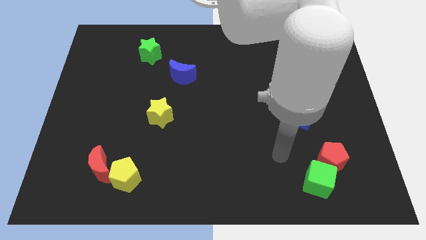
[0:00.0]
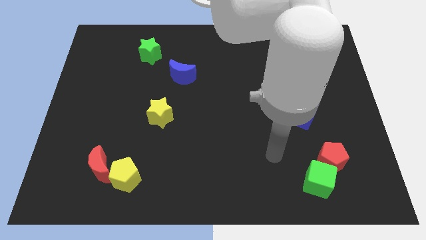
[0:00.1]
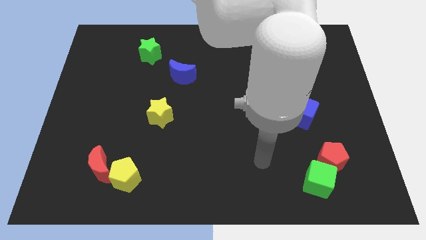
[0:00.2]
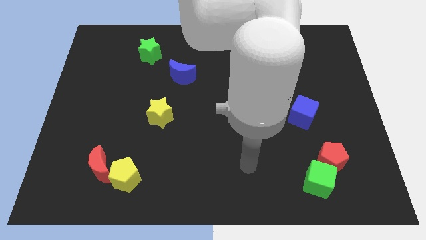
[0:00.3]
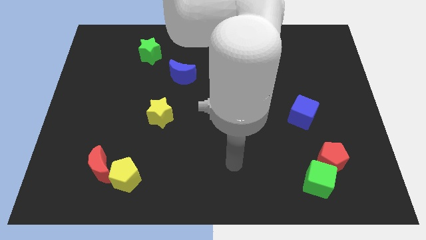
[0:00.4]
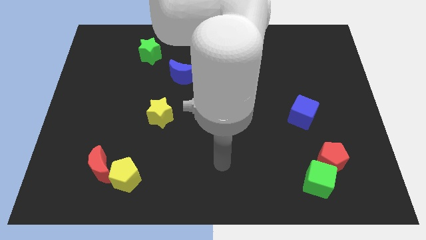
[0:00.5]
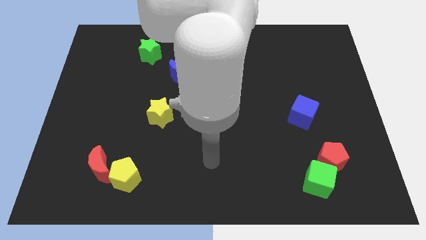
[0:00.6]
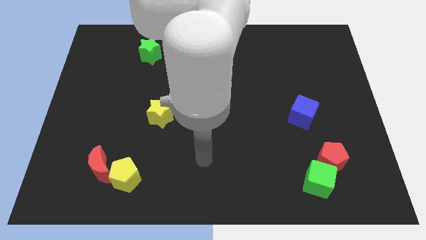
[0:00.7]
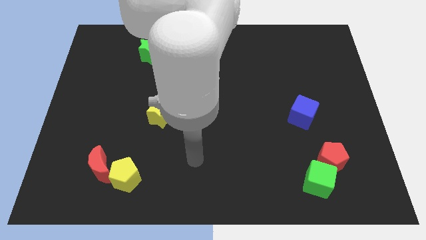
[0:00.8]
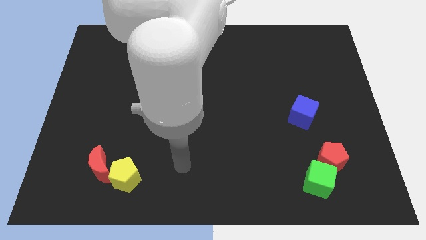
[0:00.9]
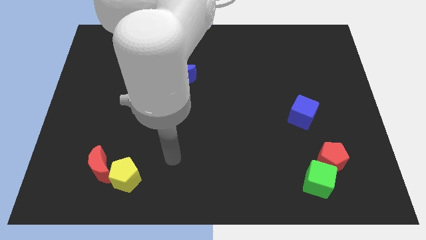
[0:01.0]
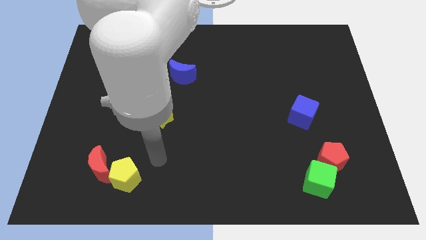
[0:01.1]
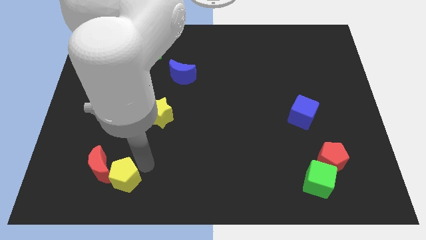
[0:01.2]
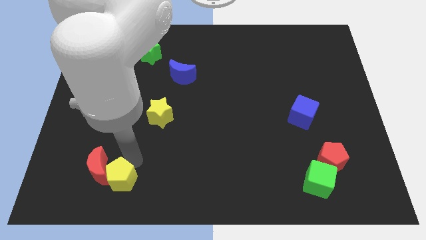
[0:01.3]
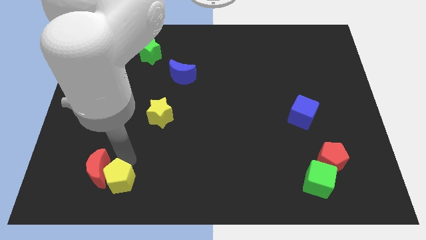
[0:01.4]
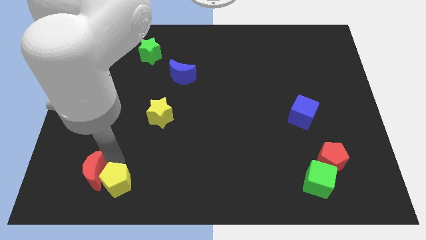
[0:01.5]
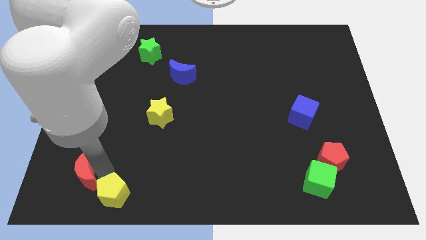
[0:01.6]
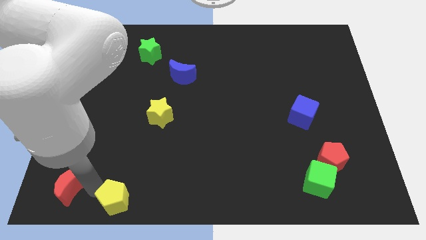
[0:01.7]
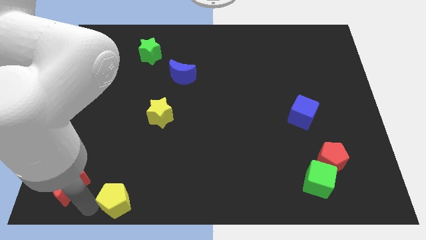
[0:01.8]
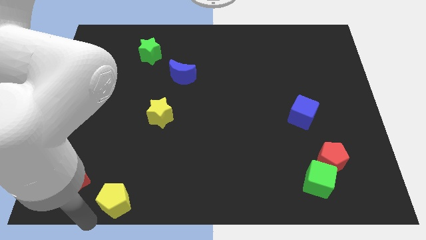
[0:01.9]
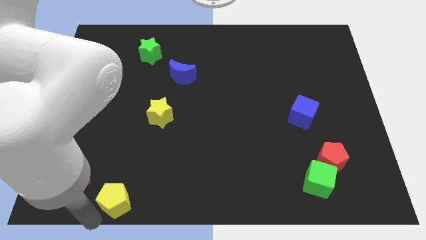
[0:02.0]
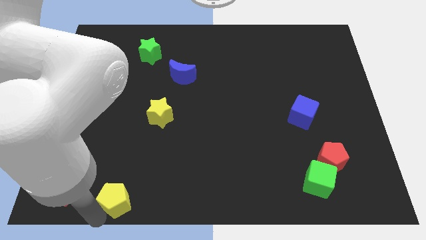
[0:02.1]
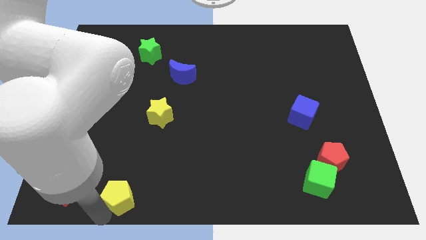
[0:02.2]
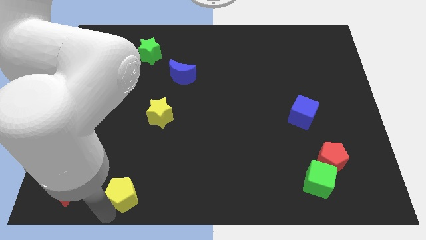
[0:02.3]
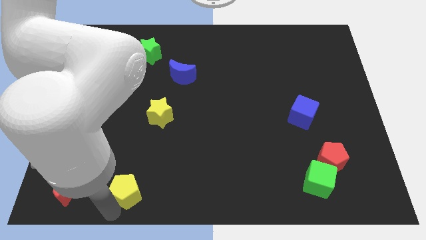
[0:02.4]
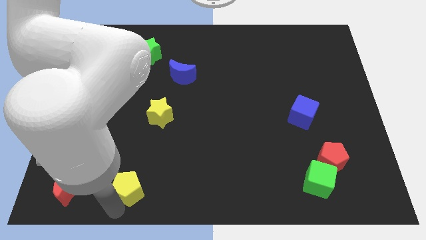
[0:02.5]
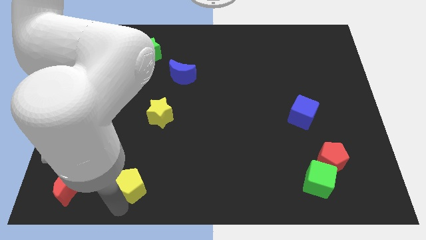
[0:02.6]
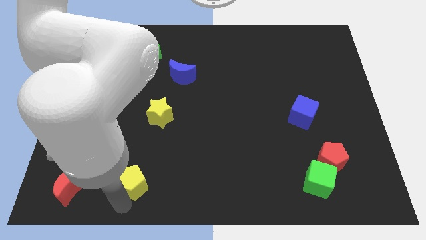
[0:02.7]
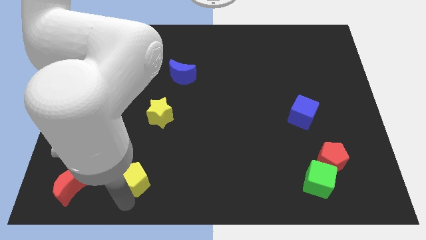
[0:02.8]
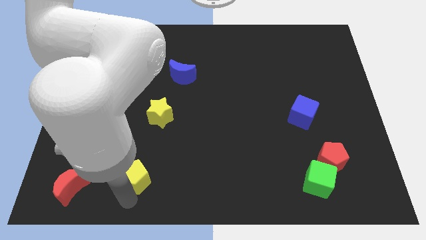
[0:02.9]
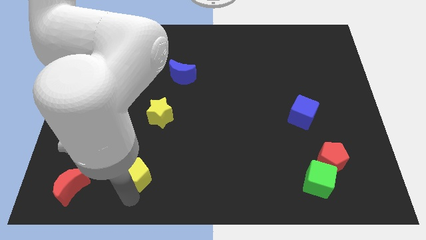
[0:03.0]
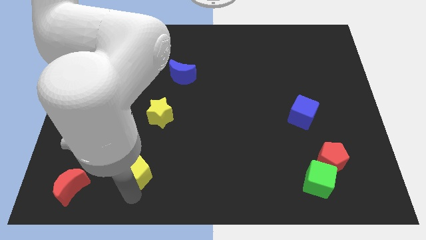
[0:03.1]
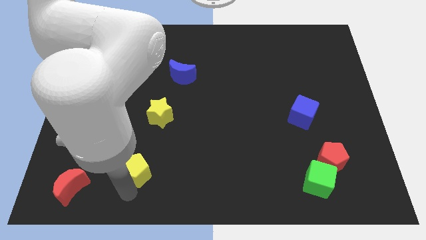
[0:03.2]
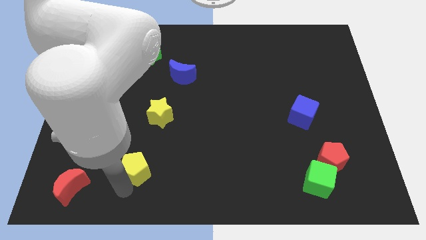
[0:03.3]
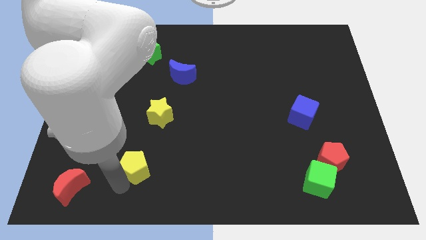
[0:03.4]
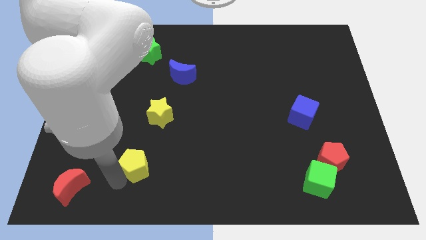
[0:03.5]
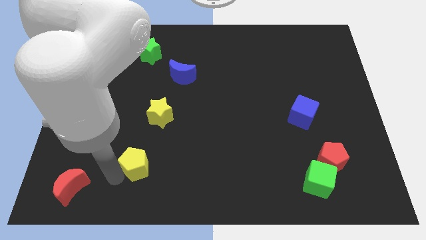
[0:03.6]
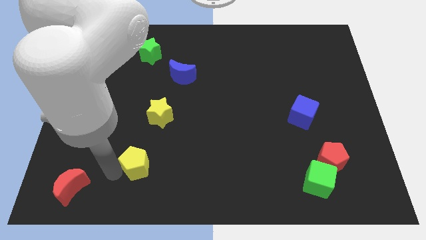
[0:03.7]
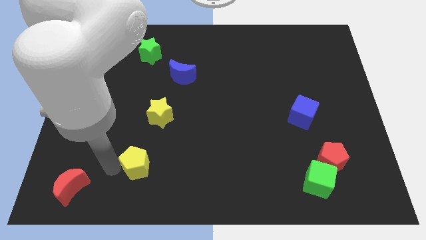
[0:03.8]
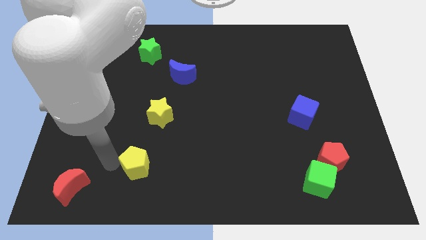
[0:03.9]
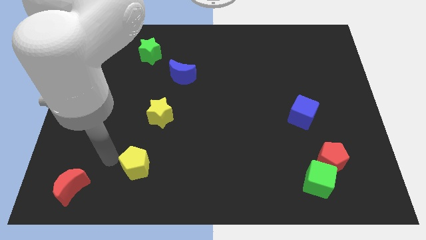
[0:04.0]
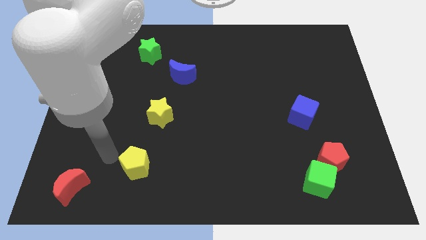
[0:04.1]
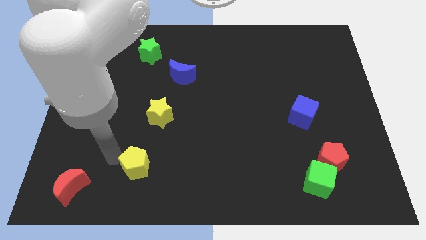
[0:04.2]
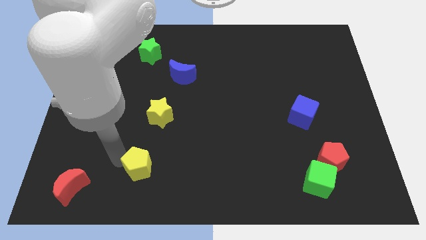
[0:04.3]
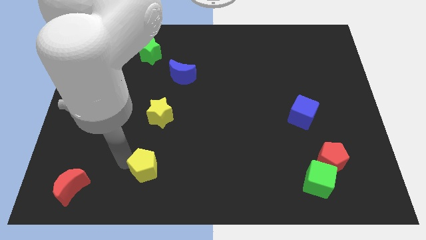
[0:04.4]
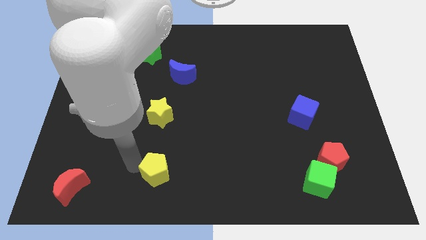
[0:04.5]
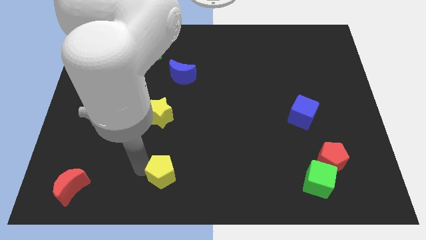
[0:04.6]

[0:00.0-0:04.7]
move the yellow pentagon a bit right

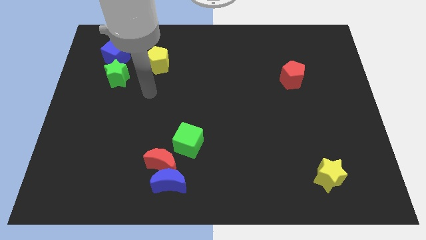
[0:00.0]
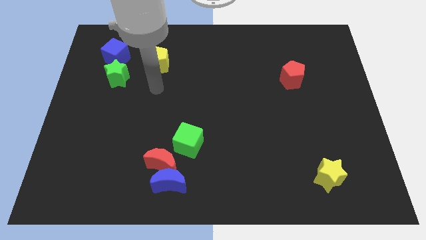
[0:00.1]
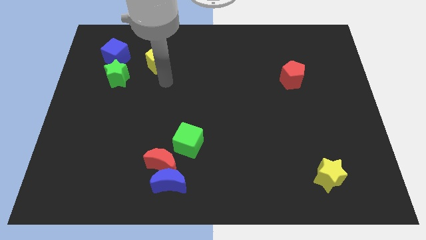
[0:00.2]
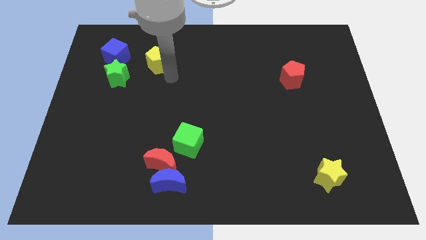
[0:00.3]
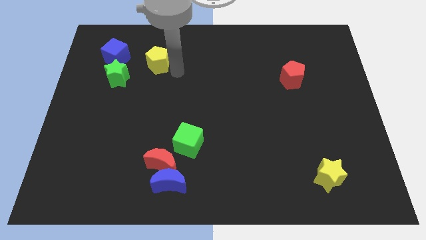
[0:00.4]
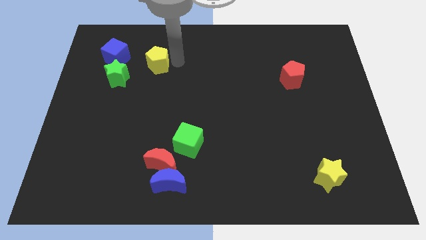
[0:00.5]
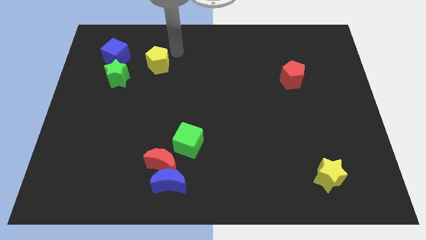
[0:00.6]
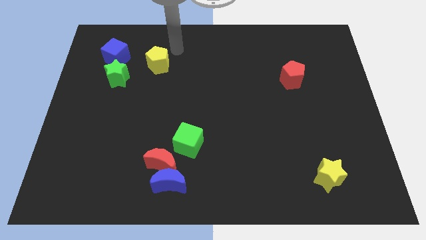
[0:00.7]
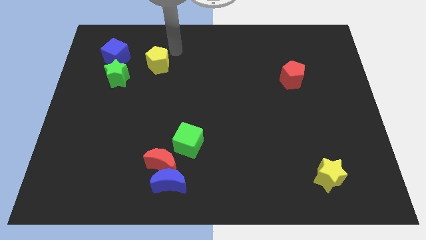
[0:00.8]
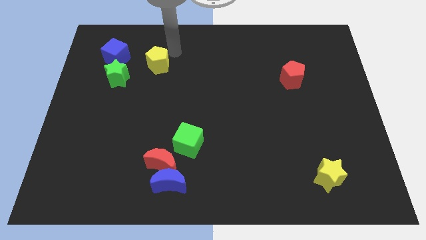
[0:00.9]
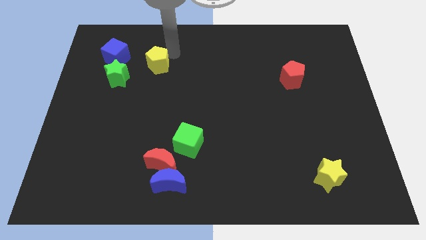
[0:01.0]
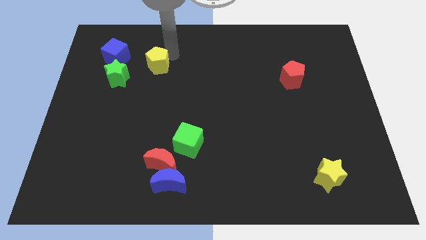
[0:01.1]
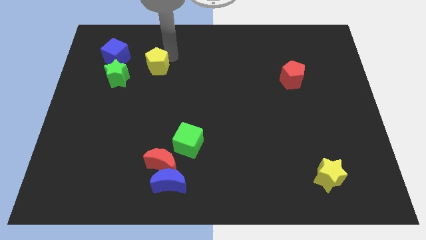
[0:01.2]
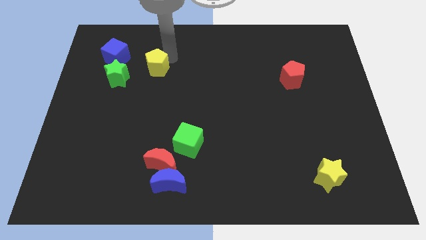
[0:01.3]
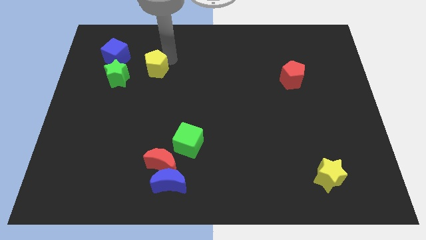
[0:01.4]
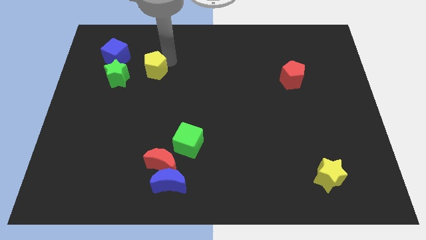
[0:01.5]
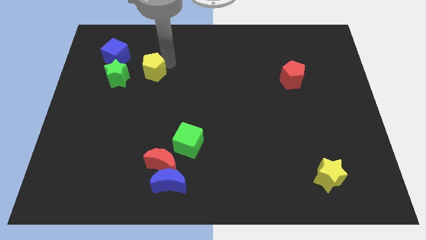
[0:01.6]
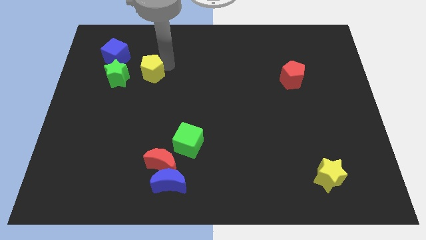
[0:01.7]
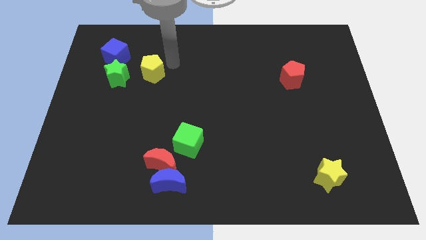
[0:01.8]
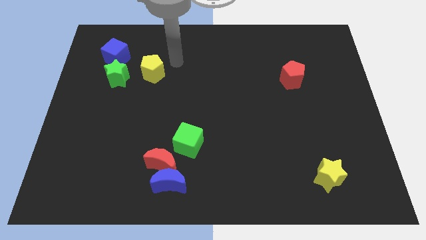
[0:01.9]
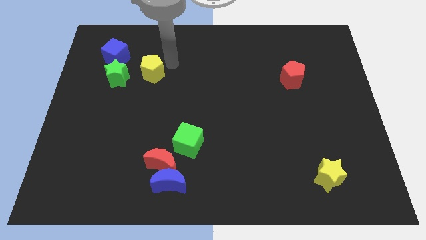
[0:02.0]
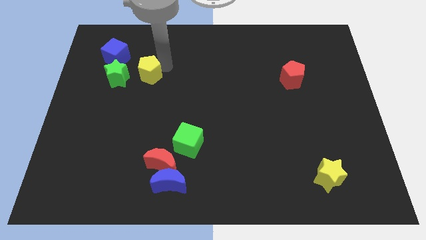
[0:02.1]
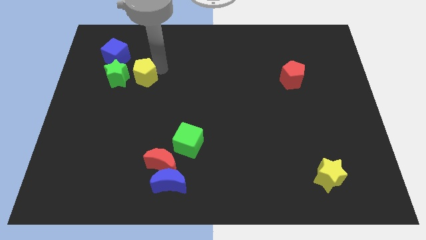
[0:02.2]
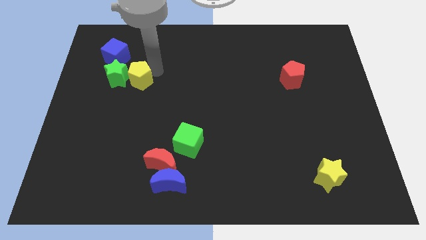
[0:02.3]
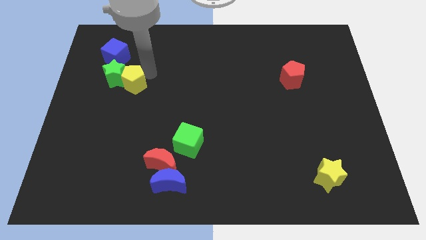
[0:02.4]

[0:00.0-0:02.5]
move the yellow pentagon downwards and left a little bit

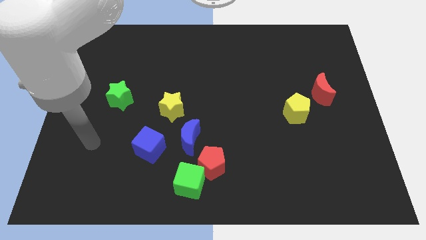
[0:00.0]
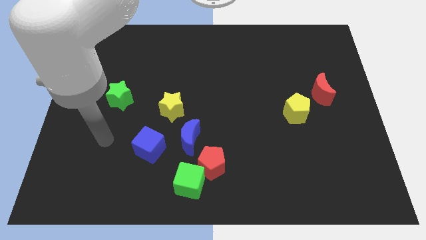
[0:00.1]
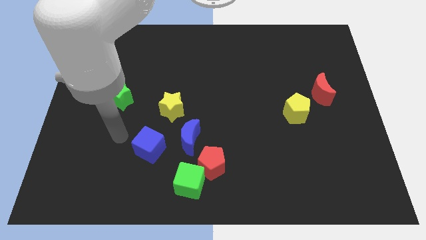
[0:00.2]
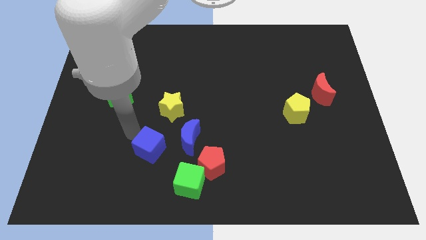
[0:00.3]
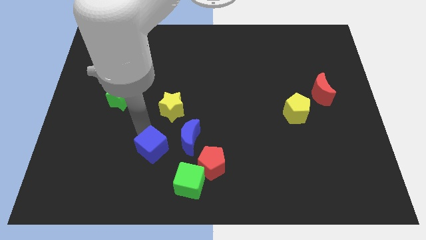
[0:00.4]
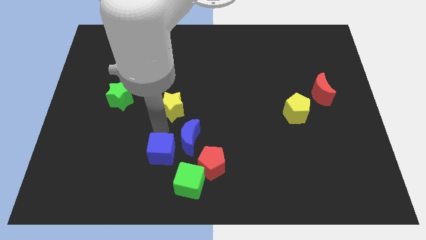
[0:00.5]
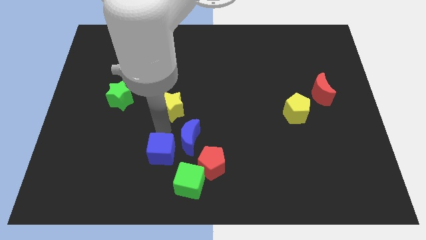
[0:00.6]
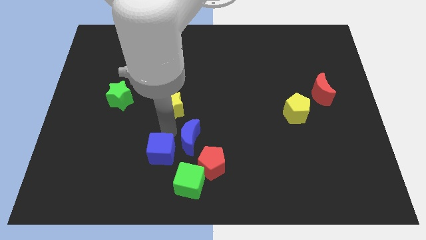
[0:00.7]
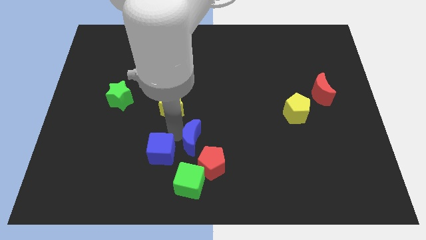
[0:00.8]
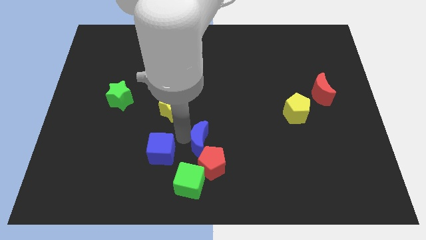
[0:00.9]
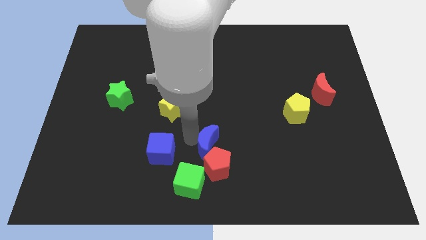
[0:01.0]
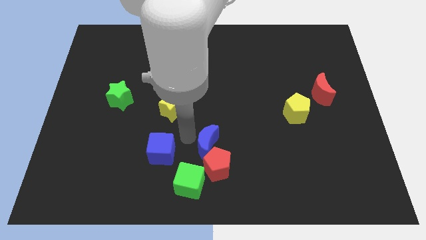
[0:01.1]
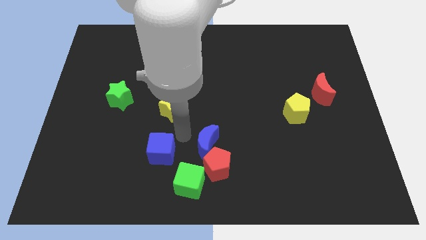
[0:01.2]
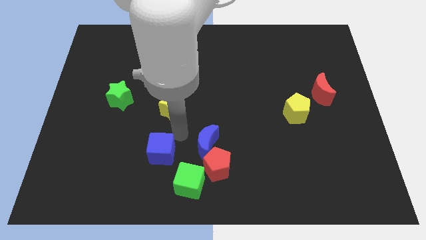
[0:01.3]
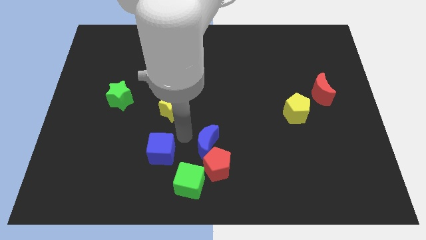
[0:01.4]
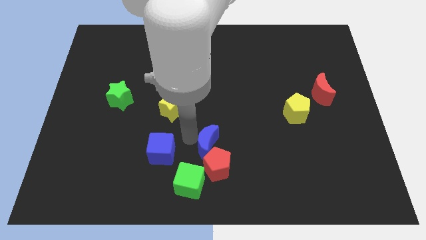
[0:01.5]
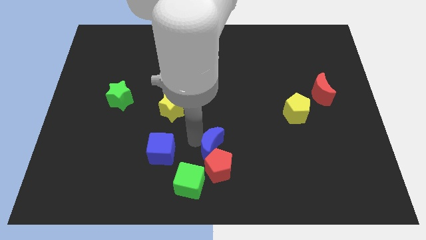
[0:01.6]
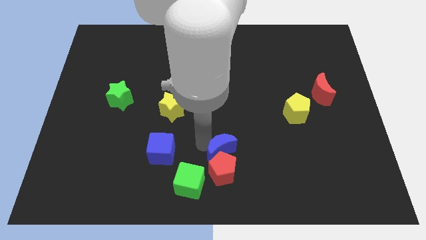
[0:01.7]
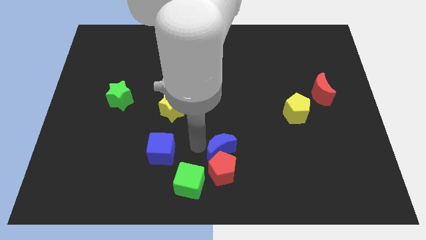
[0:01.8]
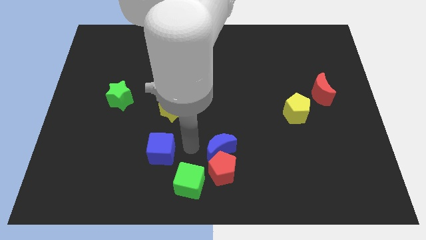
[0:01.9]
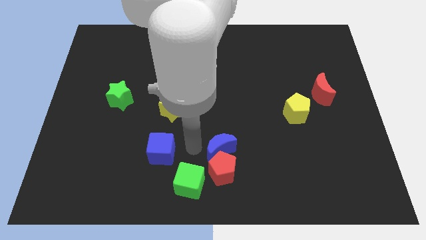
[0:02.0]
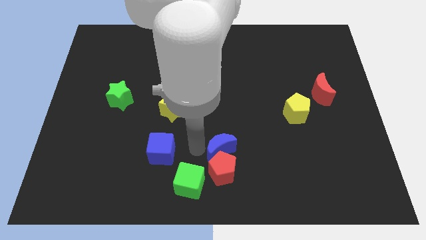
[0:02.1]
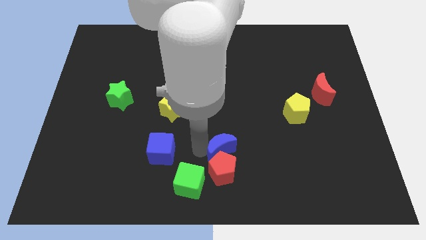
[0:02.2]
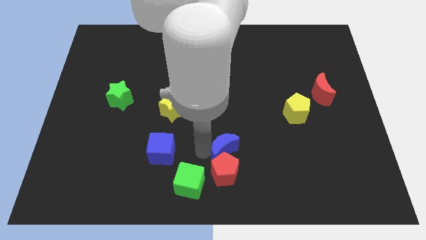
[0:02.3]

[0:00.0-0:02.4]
slightly push the blue moon right
